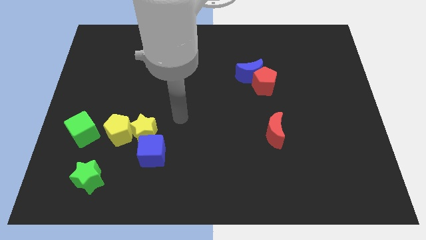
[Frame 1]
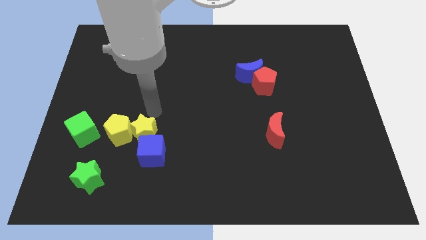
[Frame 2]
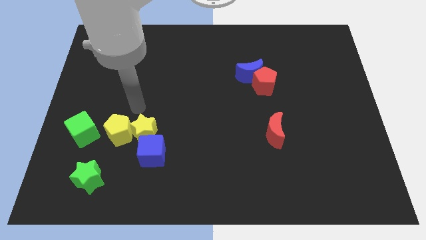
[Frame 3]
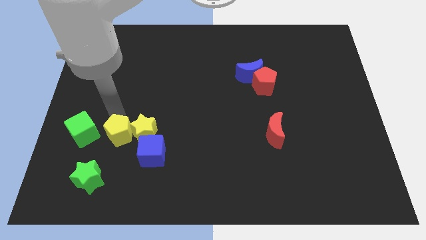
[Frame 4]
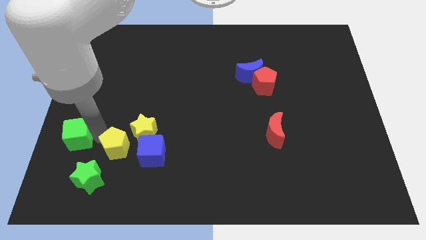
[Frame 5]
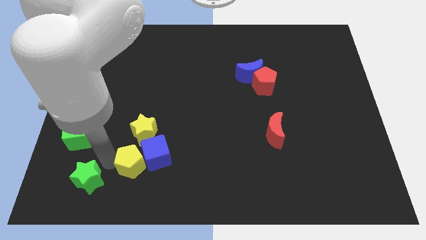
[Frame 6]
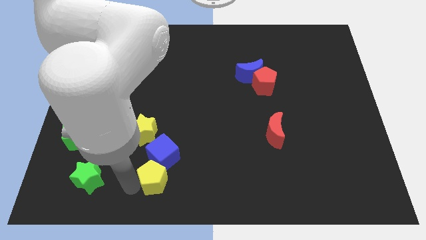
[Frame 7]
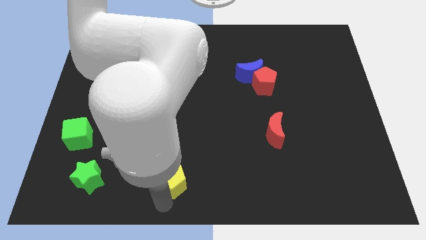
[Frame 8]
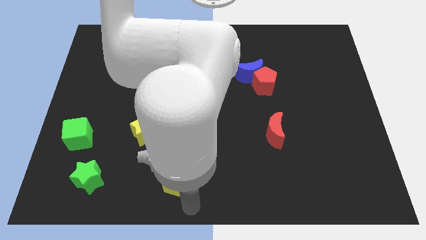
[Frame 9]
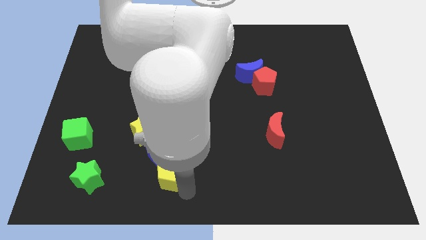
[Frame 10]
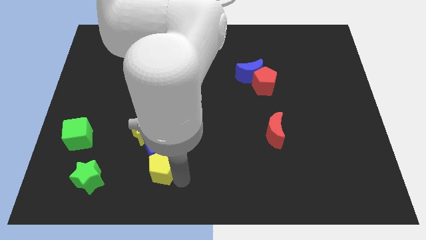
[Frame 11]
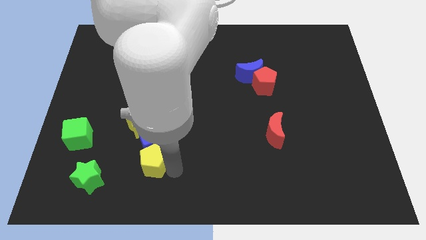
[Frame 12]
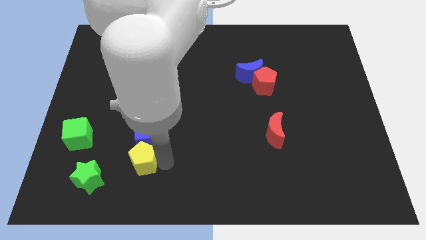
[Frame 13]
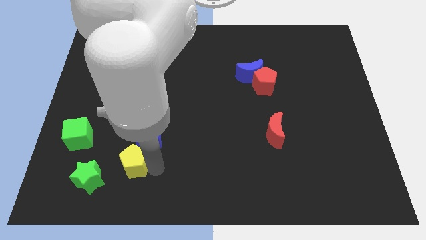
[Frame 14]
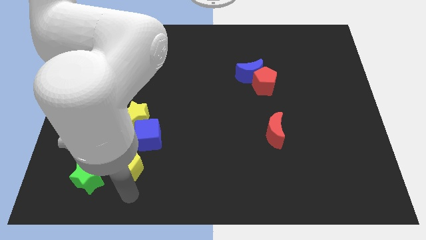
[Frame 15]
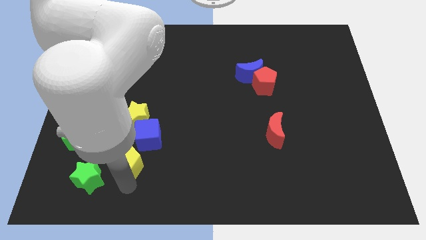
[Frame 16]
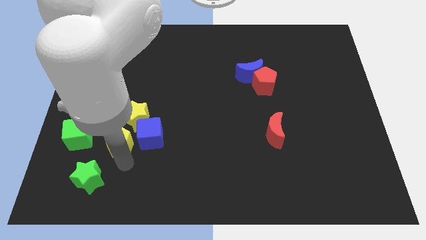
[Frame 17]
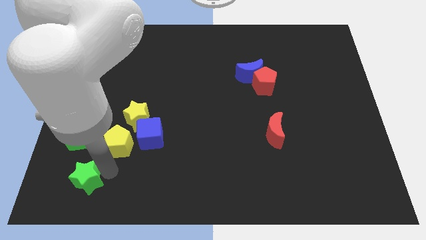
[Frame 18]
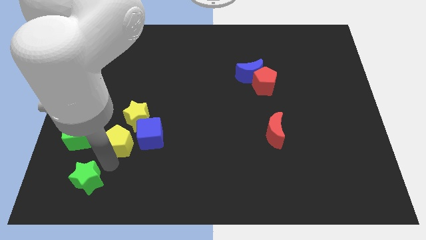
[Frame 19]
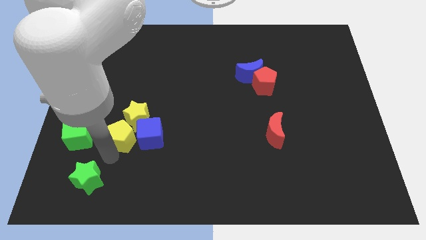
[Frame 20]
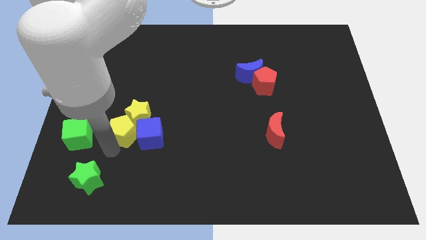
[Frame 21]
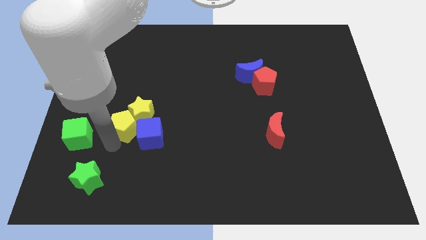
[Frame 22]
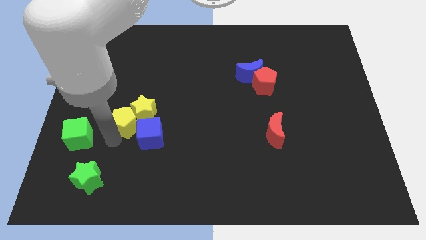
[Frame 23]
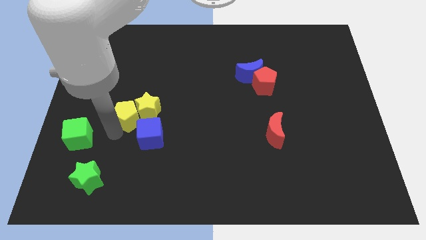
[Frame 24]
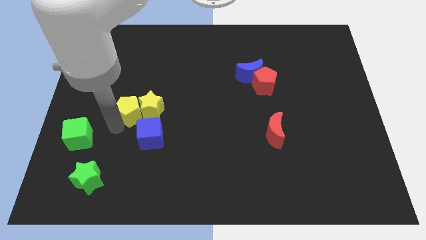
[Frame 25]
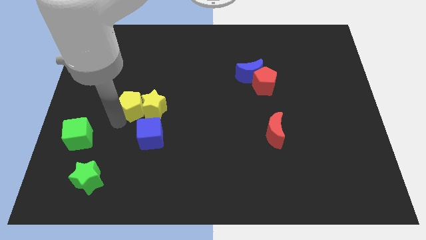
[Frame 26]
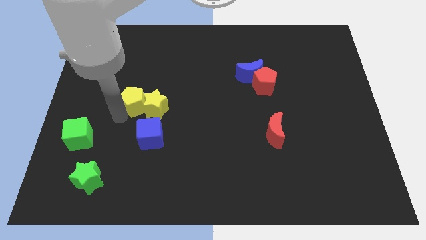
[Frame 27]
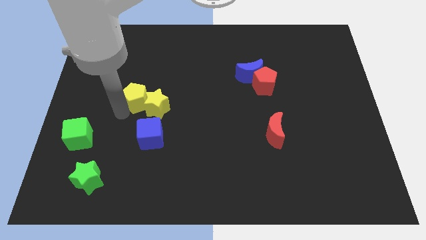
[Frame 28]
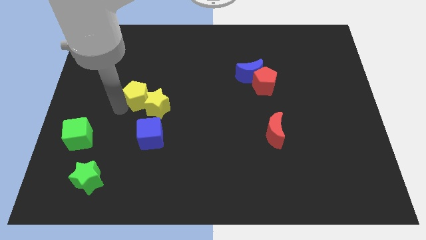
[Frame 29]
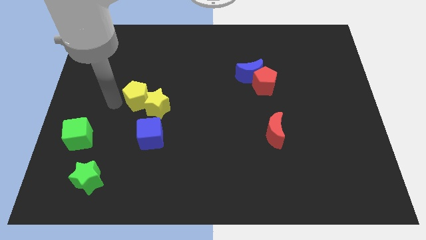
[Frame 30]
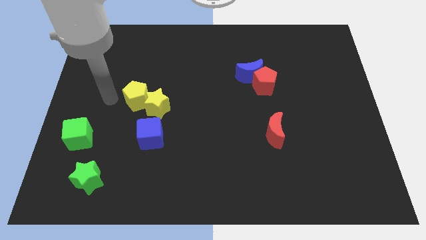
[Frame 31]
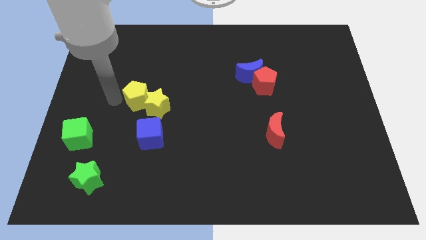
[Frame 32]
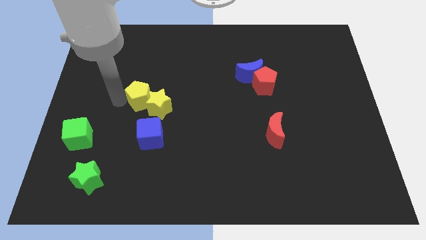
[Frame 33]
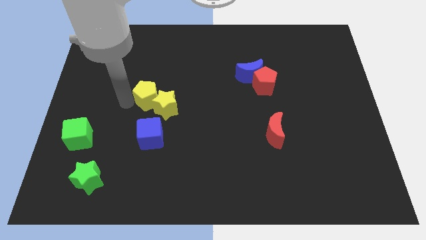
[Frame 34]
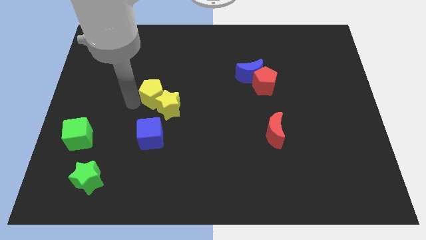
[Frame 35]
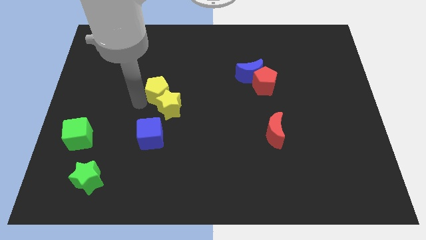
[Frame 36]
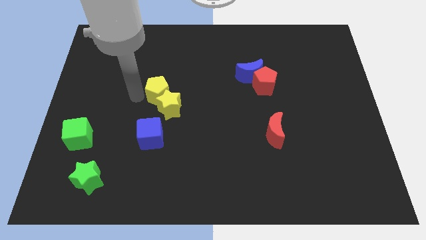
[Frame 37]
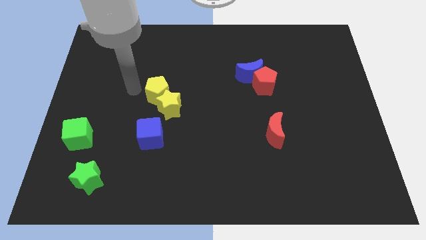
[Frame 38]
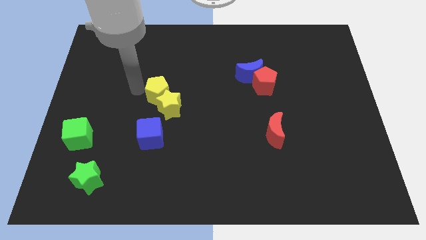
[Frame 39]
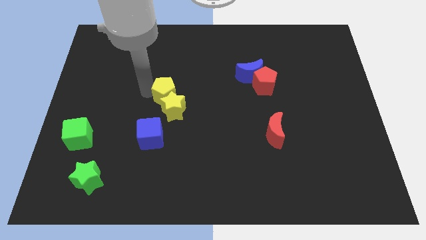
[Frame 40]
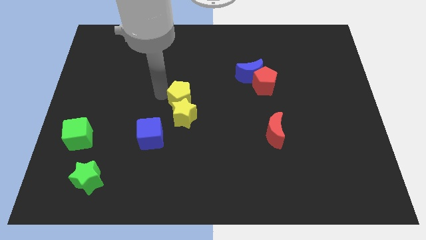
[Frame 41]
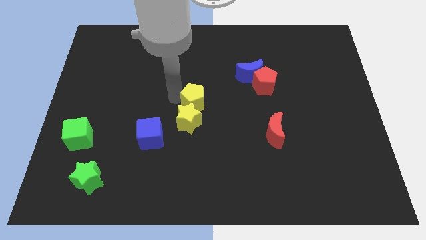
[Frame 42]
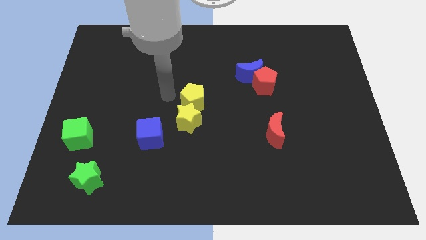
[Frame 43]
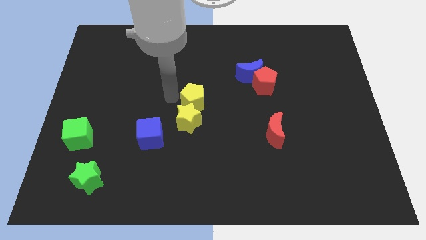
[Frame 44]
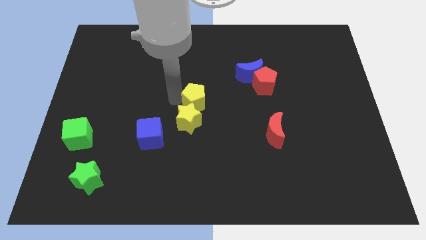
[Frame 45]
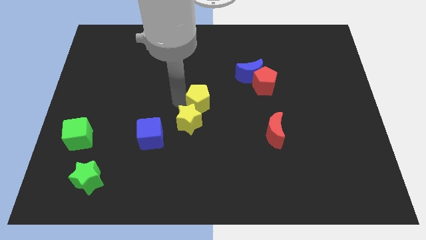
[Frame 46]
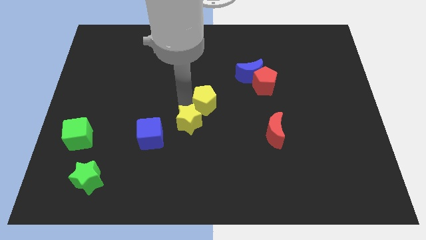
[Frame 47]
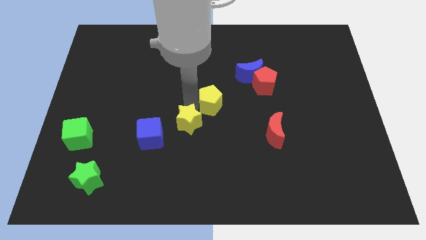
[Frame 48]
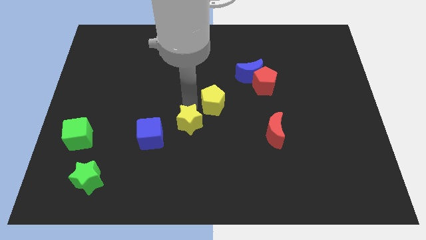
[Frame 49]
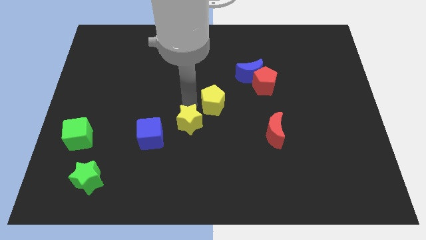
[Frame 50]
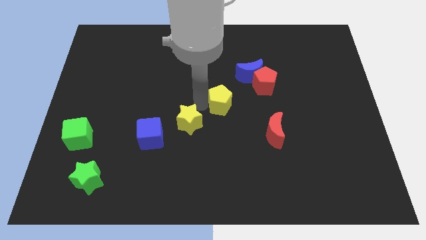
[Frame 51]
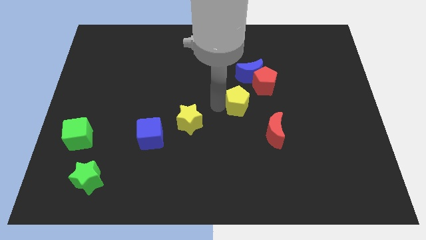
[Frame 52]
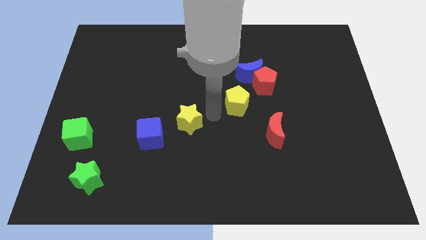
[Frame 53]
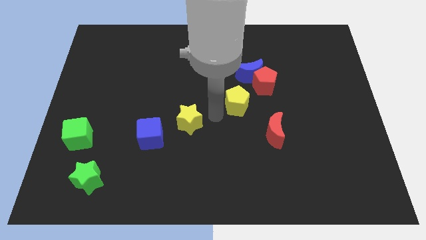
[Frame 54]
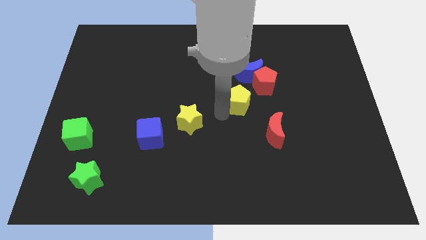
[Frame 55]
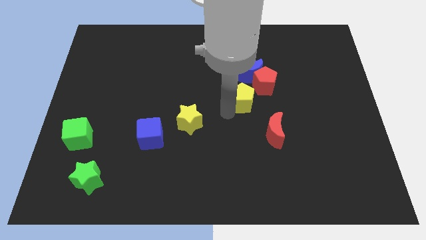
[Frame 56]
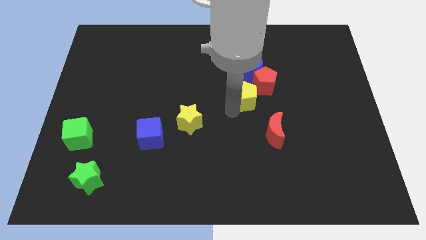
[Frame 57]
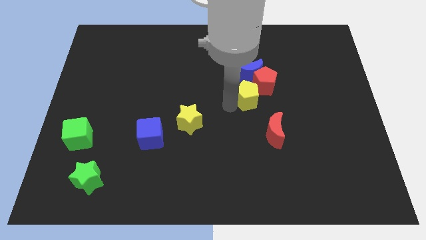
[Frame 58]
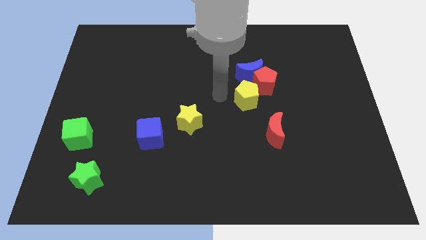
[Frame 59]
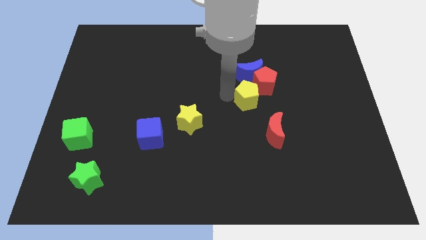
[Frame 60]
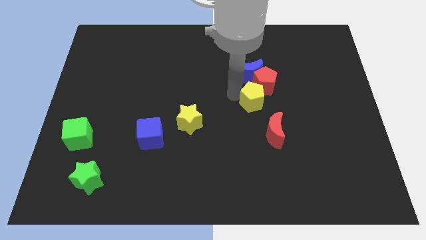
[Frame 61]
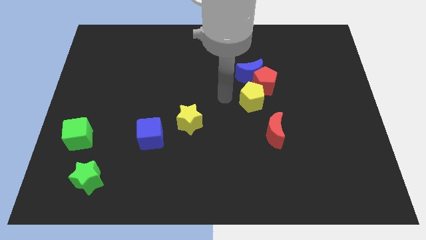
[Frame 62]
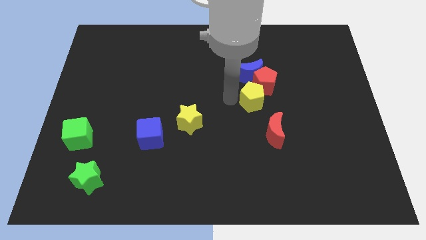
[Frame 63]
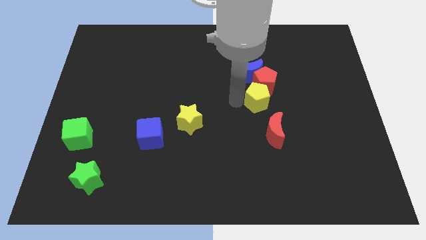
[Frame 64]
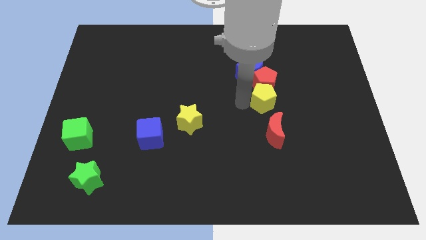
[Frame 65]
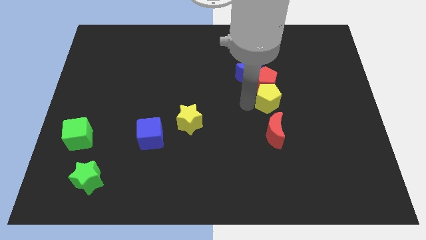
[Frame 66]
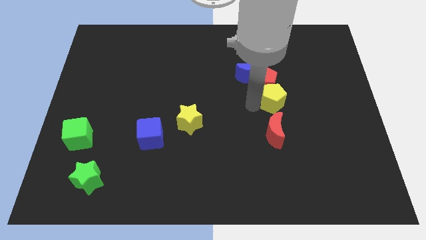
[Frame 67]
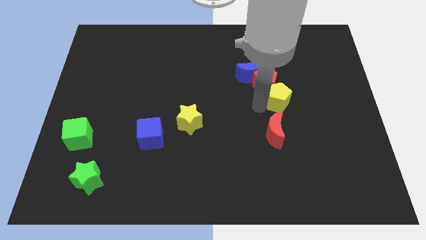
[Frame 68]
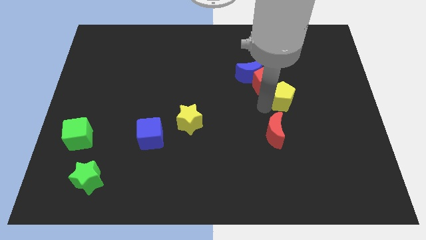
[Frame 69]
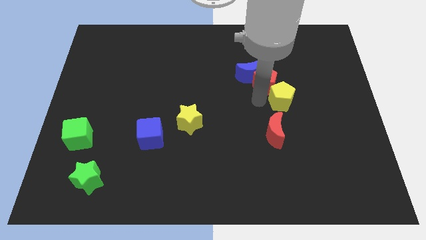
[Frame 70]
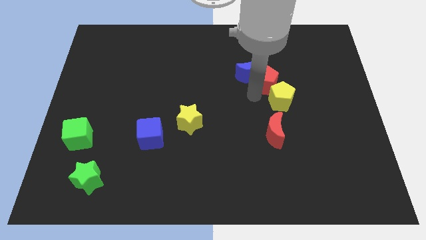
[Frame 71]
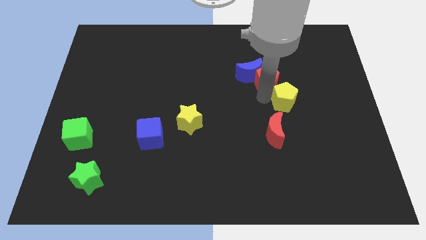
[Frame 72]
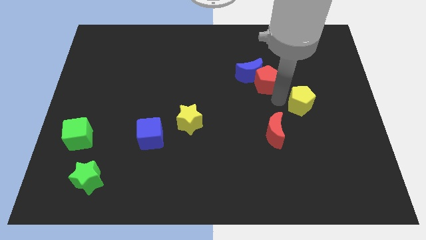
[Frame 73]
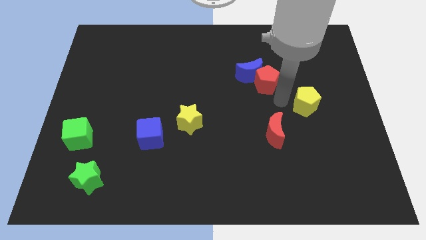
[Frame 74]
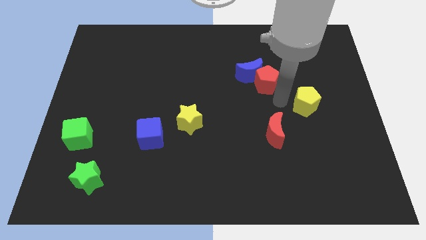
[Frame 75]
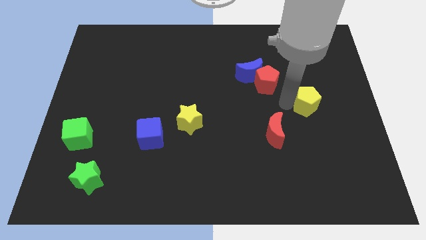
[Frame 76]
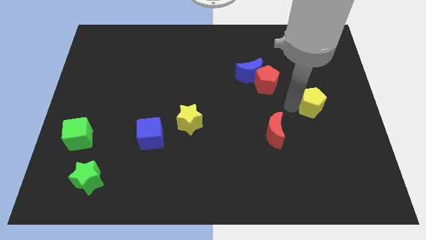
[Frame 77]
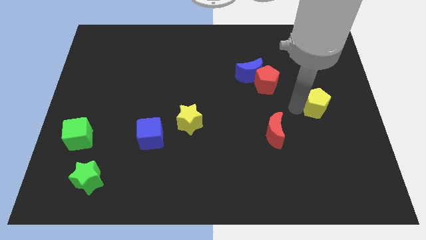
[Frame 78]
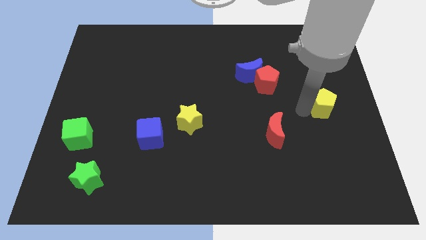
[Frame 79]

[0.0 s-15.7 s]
push the yellow pentagon to the right side
